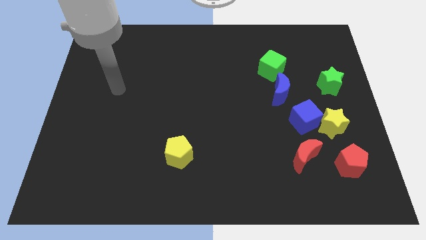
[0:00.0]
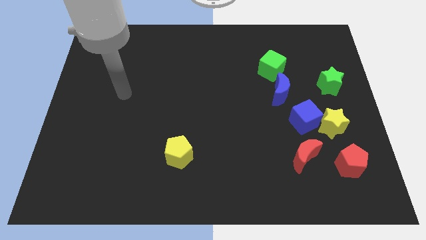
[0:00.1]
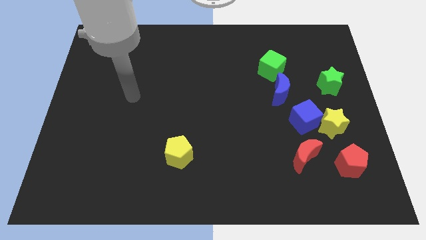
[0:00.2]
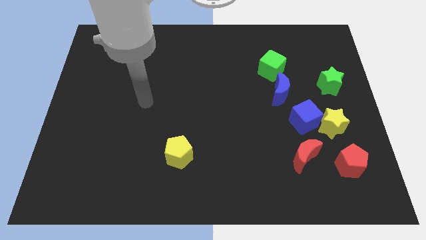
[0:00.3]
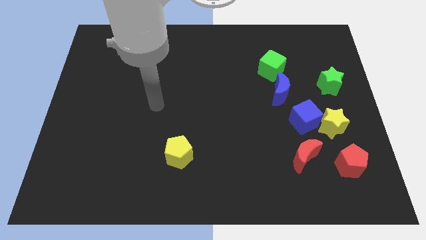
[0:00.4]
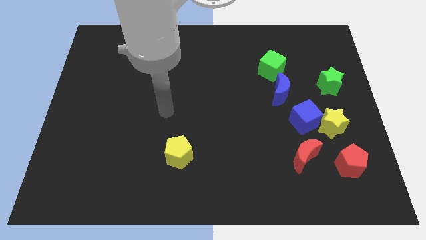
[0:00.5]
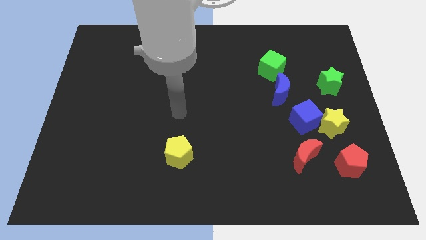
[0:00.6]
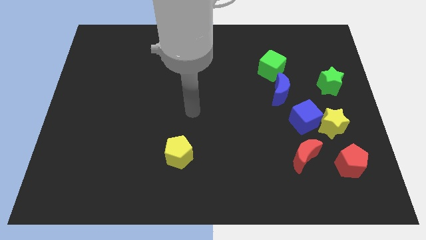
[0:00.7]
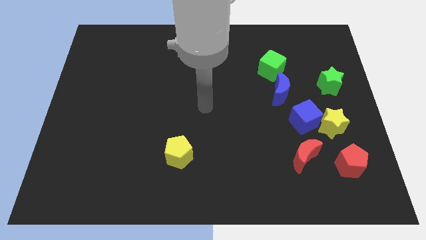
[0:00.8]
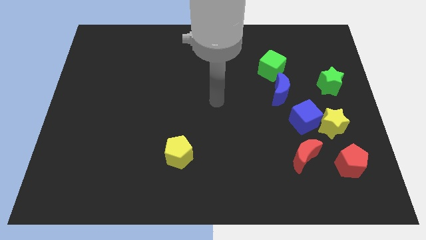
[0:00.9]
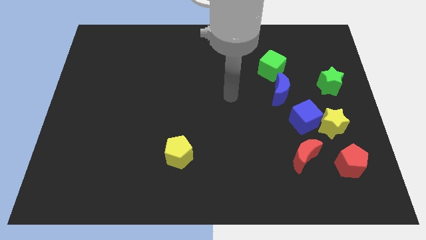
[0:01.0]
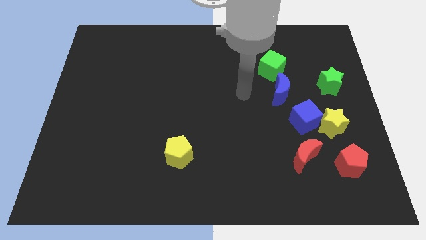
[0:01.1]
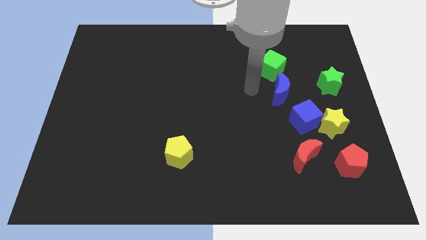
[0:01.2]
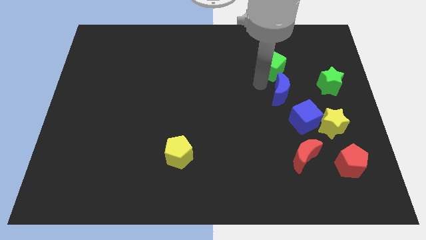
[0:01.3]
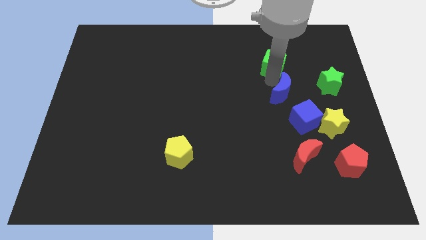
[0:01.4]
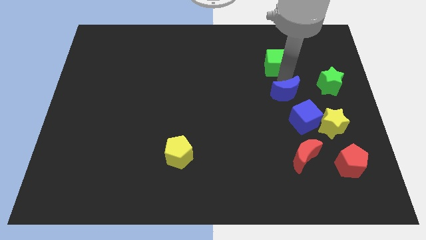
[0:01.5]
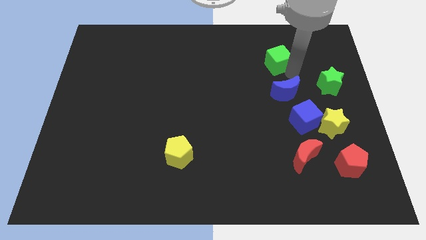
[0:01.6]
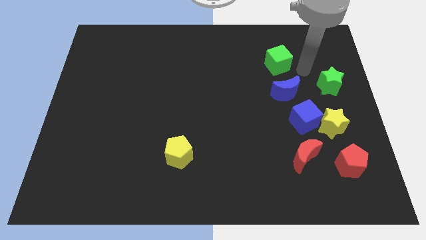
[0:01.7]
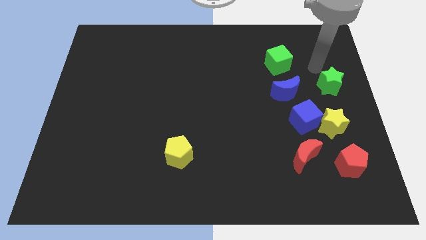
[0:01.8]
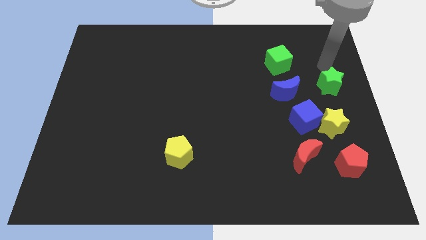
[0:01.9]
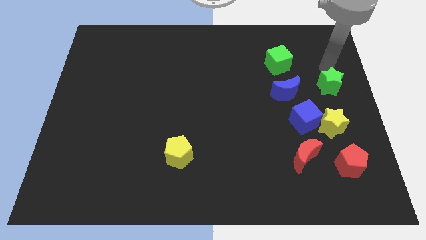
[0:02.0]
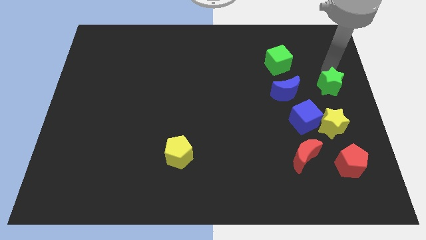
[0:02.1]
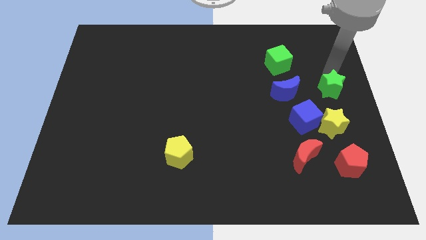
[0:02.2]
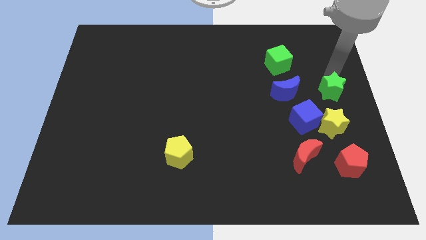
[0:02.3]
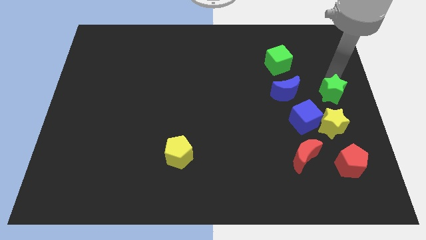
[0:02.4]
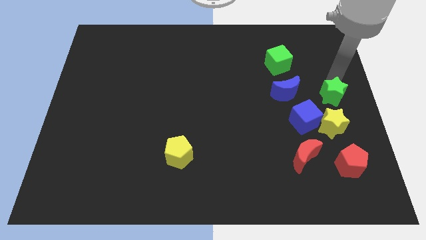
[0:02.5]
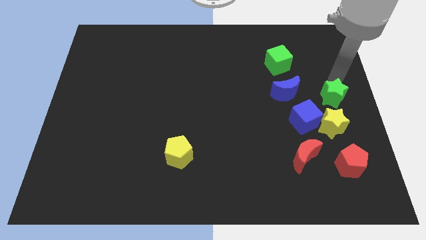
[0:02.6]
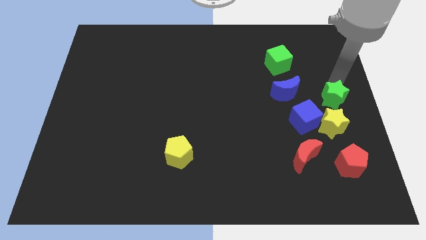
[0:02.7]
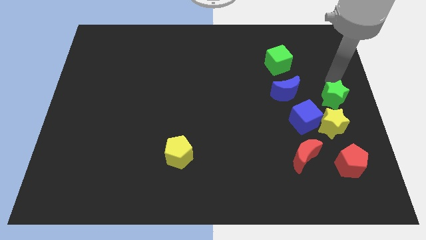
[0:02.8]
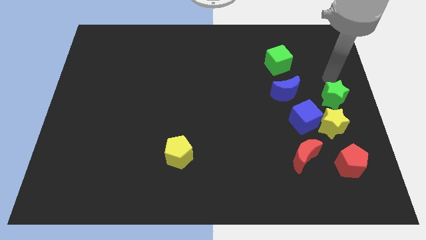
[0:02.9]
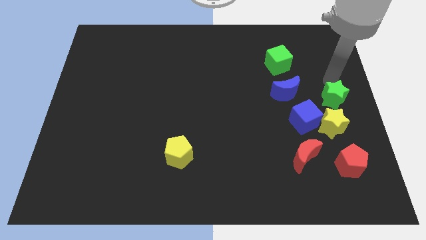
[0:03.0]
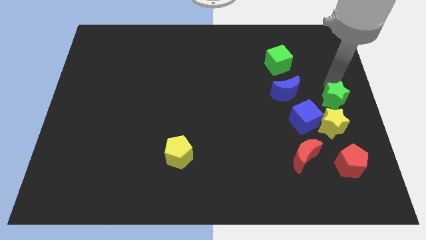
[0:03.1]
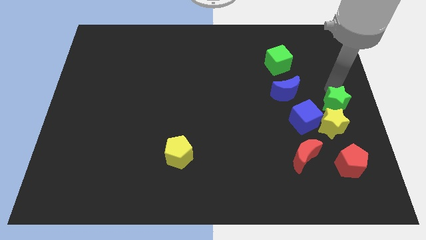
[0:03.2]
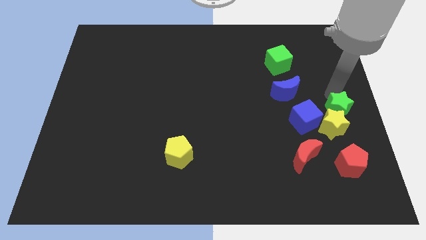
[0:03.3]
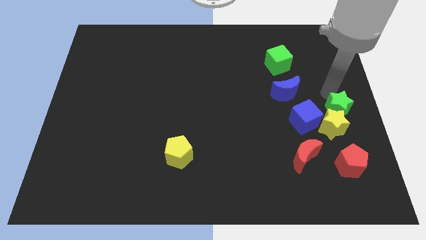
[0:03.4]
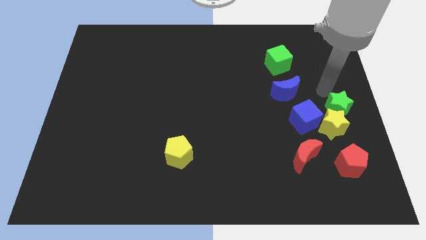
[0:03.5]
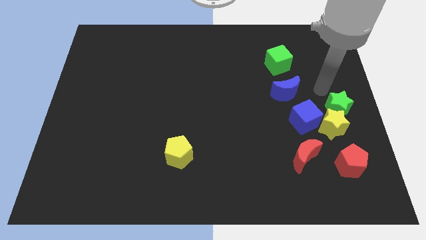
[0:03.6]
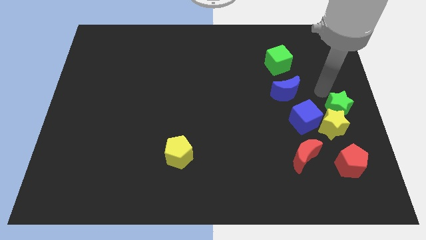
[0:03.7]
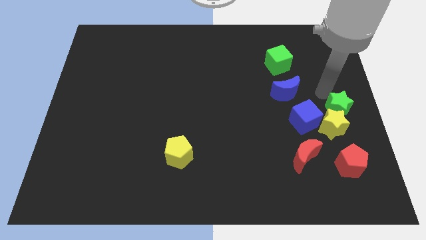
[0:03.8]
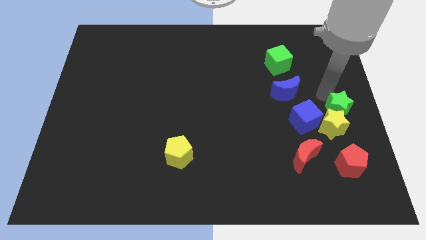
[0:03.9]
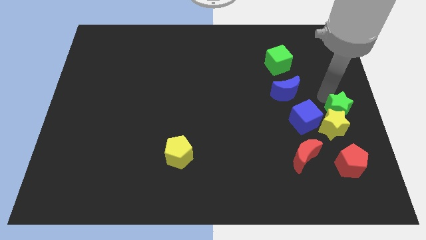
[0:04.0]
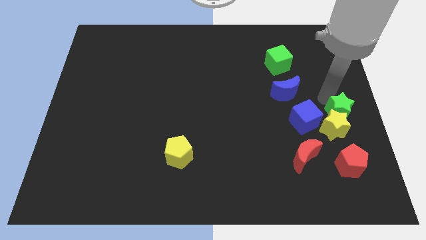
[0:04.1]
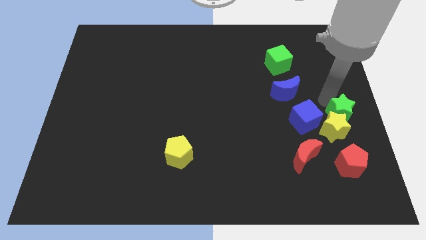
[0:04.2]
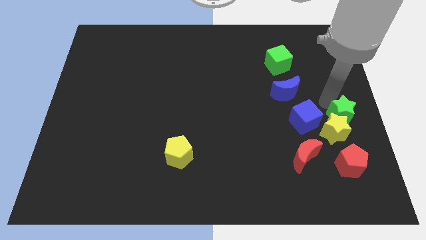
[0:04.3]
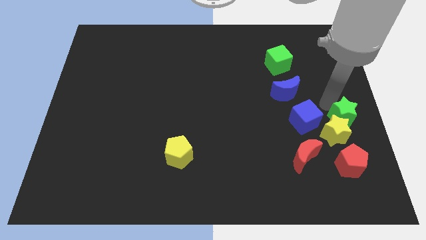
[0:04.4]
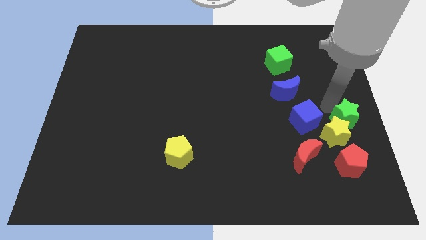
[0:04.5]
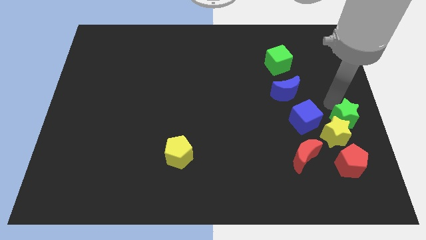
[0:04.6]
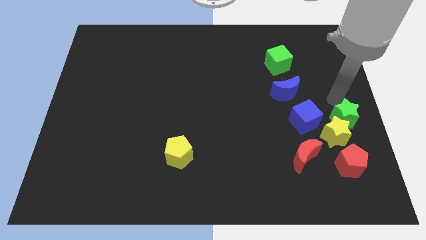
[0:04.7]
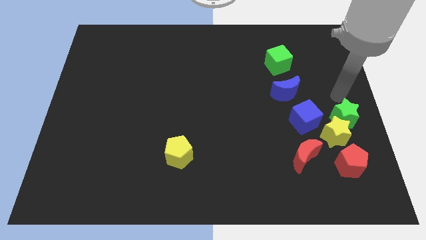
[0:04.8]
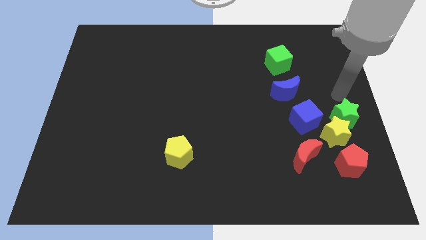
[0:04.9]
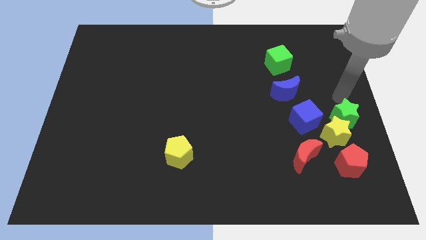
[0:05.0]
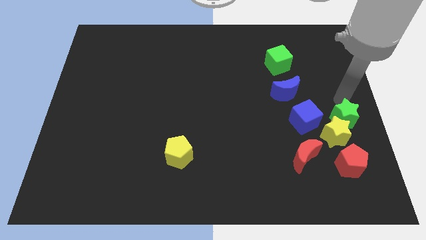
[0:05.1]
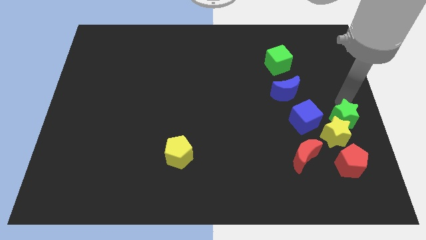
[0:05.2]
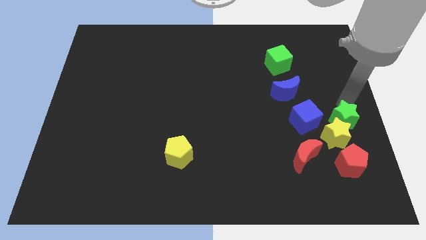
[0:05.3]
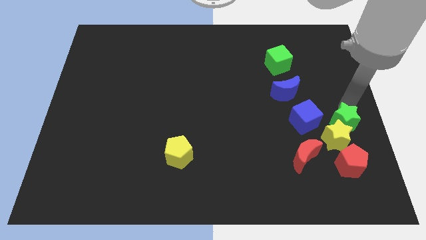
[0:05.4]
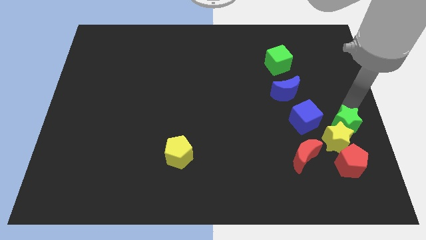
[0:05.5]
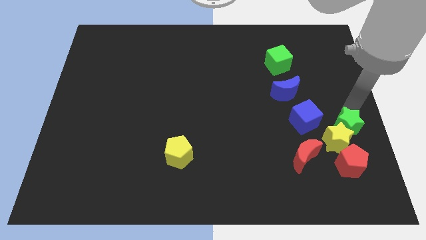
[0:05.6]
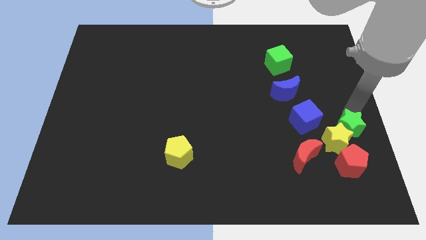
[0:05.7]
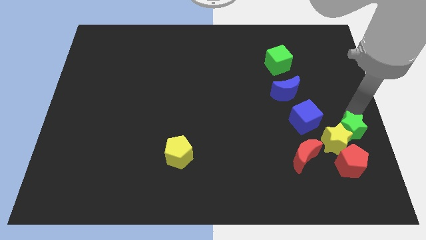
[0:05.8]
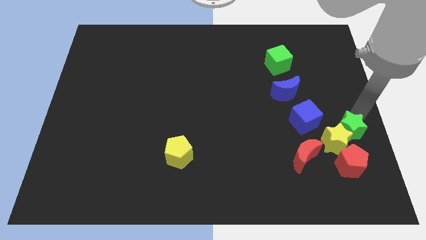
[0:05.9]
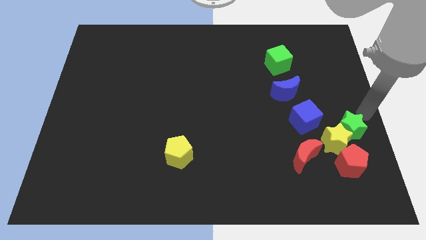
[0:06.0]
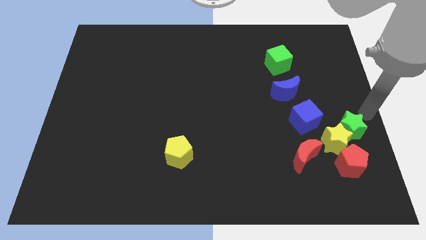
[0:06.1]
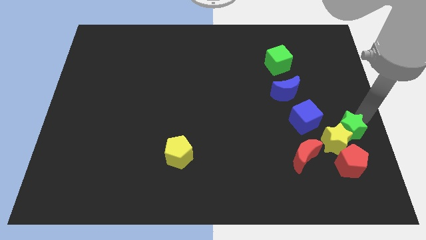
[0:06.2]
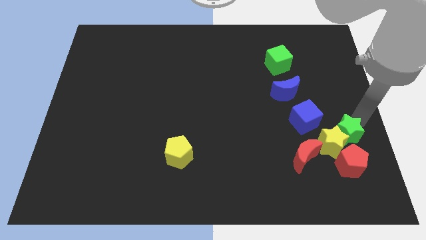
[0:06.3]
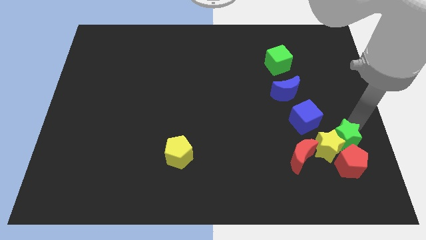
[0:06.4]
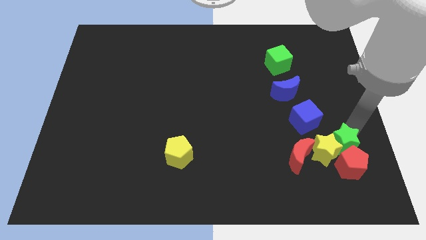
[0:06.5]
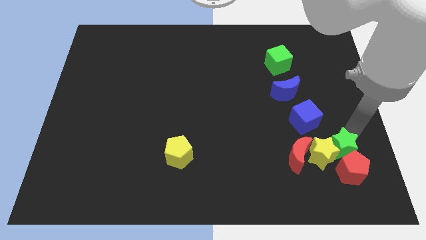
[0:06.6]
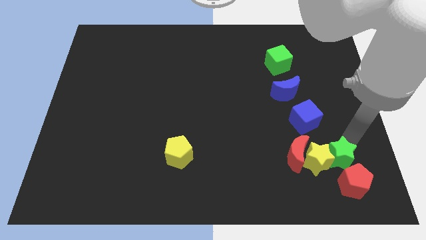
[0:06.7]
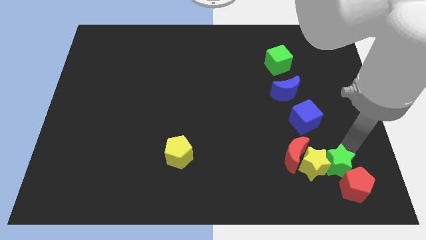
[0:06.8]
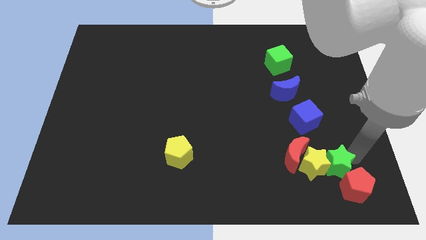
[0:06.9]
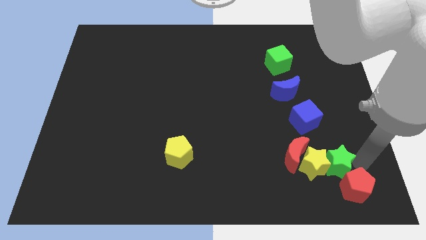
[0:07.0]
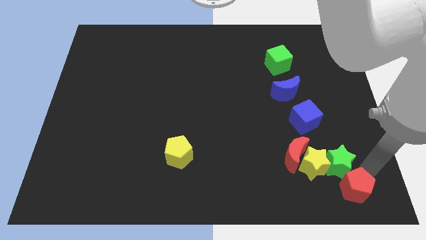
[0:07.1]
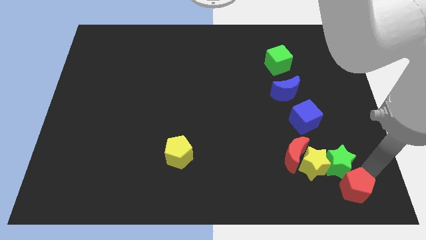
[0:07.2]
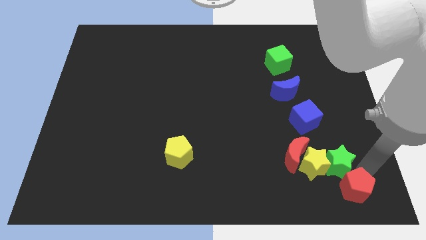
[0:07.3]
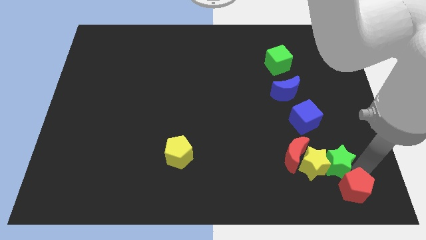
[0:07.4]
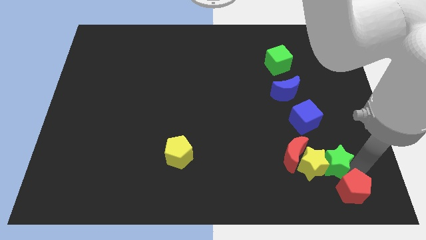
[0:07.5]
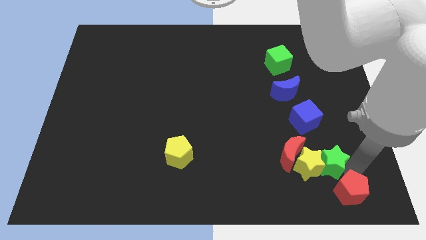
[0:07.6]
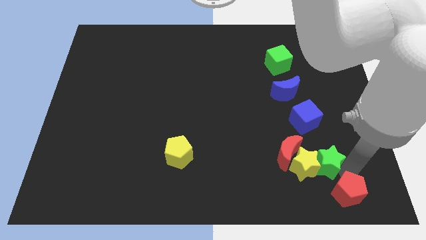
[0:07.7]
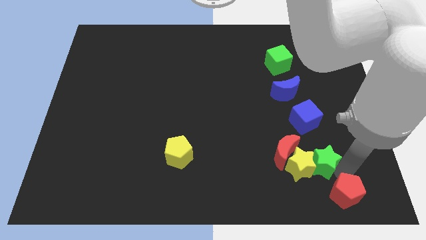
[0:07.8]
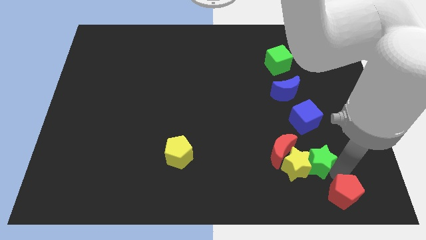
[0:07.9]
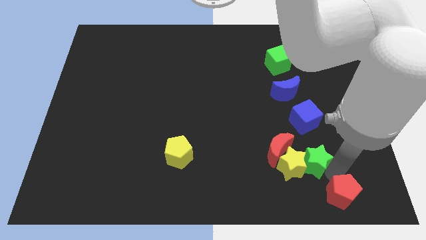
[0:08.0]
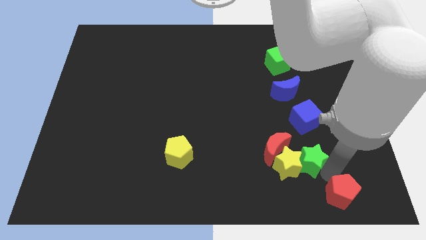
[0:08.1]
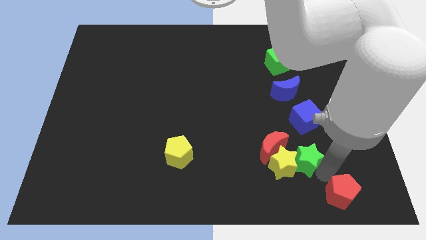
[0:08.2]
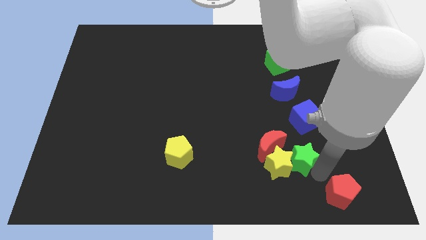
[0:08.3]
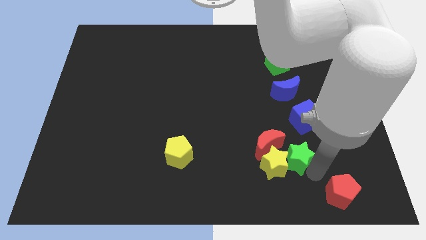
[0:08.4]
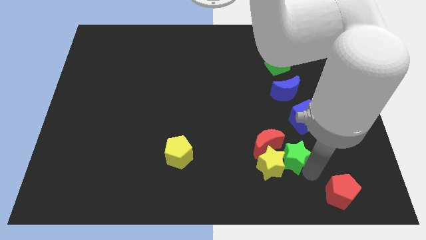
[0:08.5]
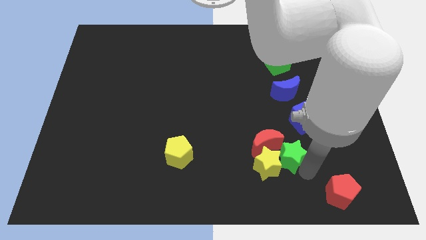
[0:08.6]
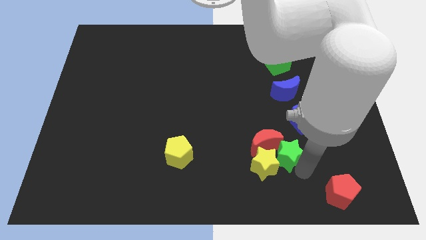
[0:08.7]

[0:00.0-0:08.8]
push the green star close to the red moon
